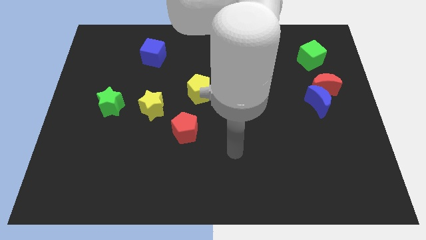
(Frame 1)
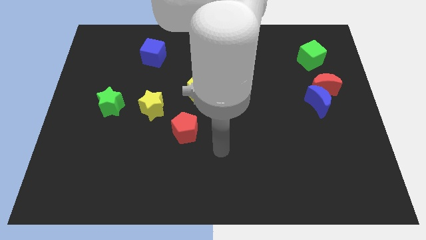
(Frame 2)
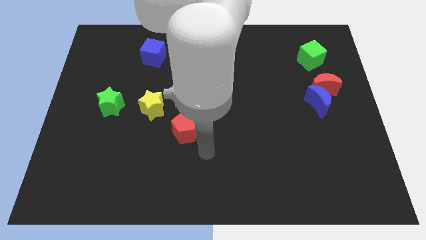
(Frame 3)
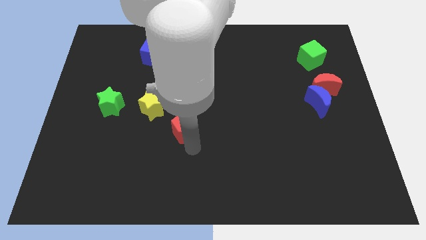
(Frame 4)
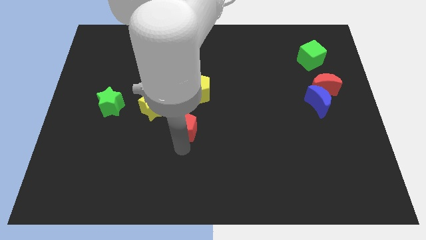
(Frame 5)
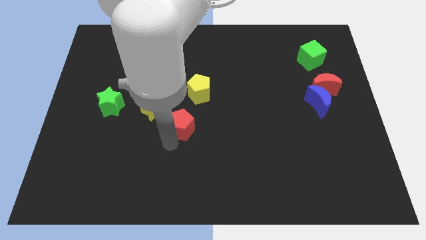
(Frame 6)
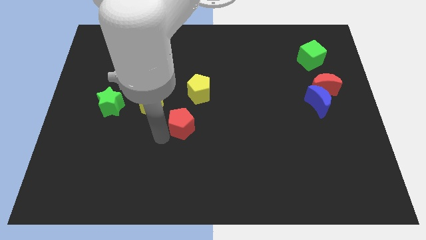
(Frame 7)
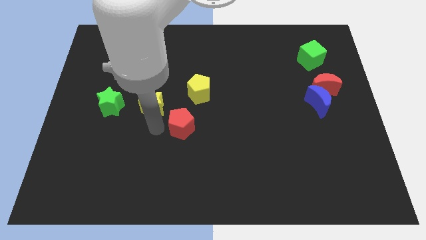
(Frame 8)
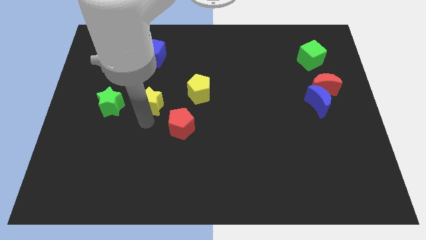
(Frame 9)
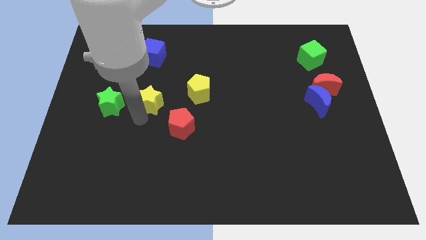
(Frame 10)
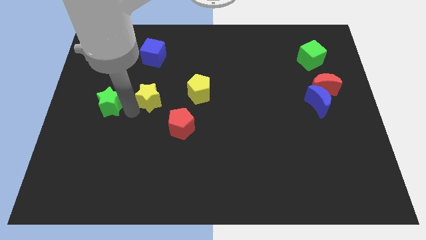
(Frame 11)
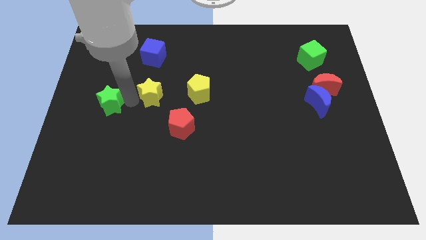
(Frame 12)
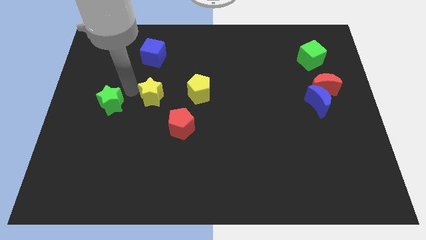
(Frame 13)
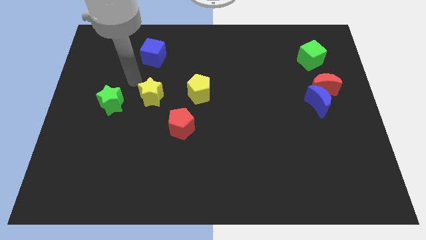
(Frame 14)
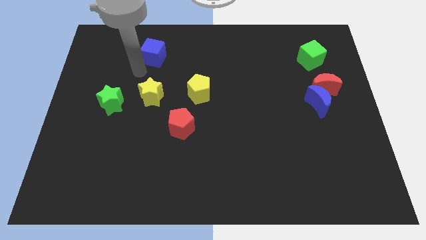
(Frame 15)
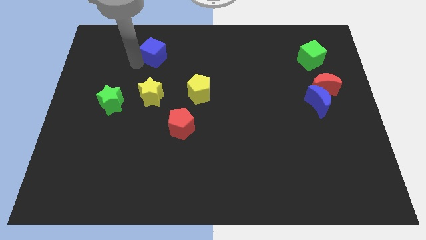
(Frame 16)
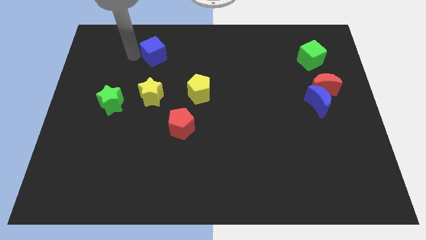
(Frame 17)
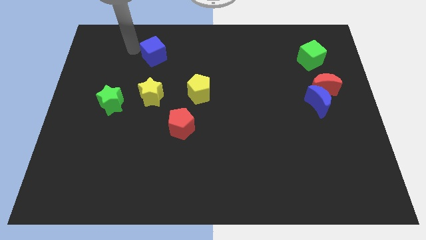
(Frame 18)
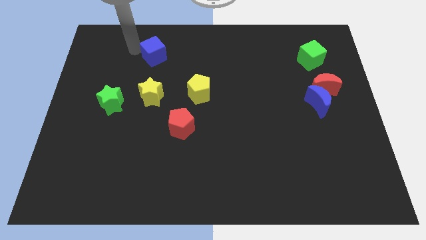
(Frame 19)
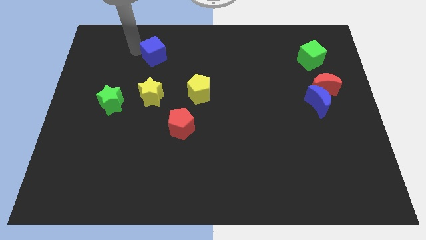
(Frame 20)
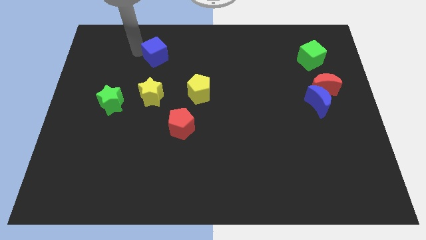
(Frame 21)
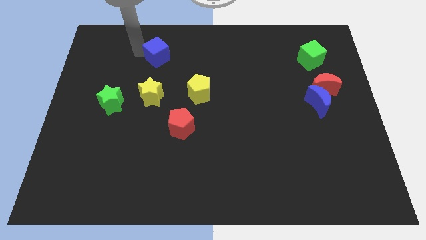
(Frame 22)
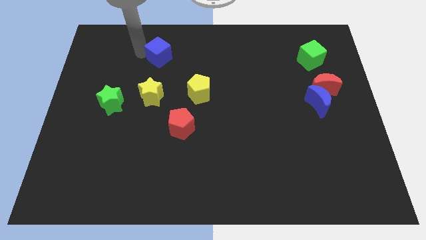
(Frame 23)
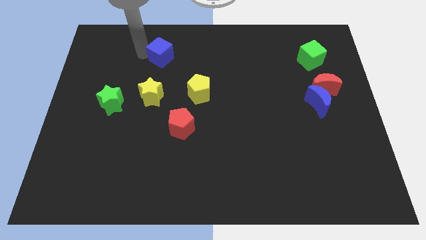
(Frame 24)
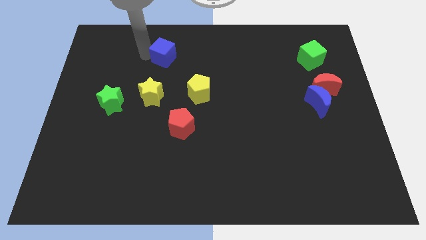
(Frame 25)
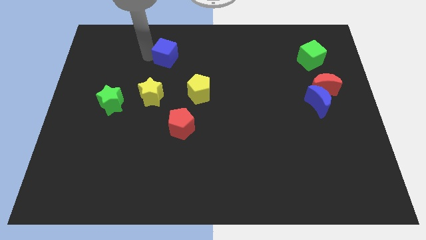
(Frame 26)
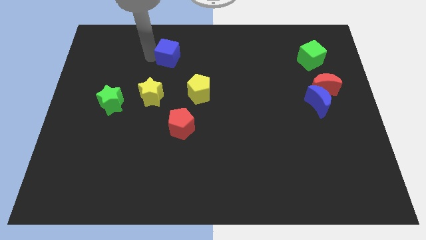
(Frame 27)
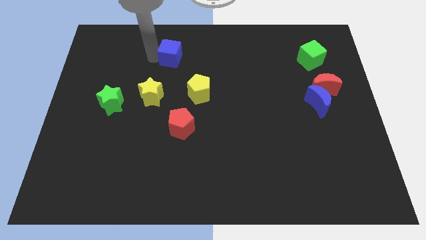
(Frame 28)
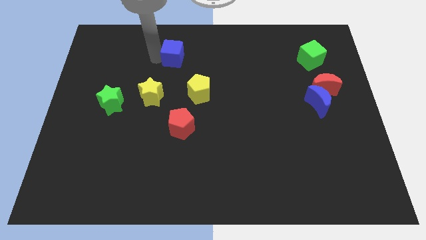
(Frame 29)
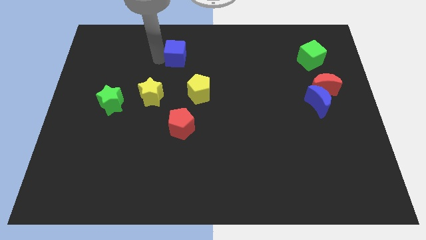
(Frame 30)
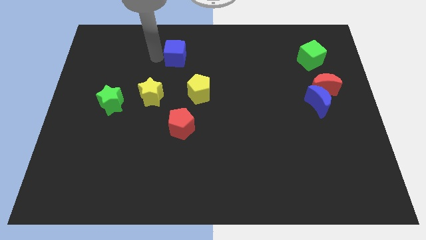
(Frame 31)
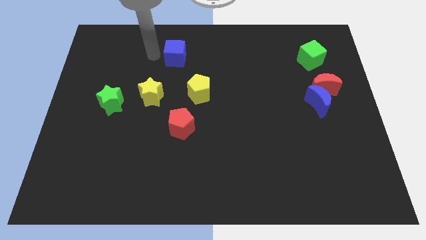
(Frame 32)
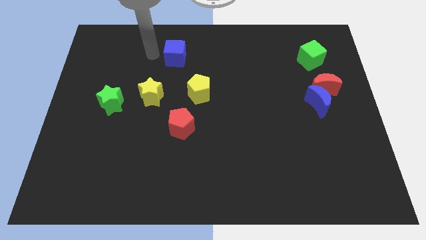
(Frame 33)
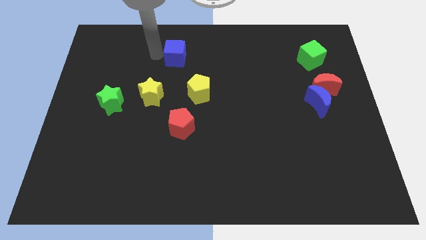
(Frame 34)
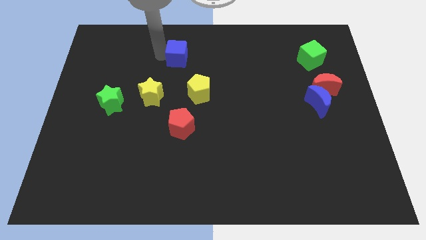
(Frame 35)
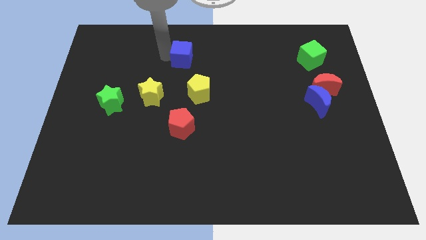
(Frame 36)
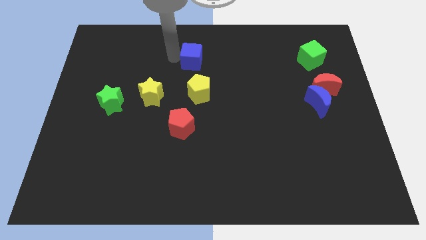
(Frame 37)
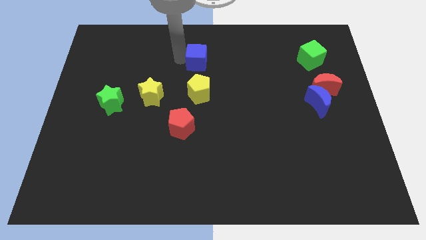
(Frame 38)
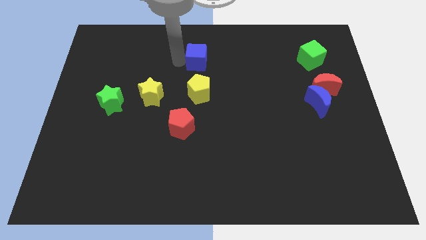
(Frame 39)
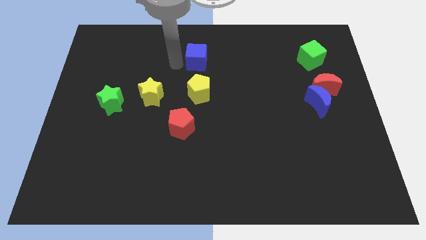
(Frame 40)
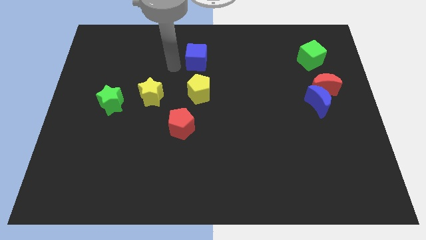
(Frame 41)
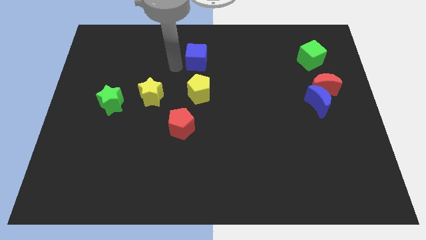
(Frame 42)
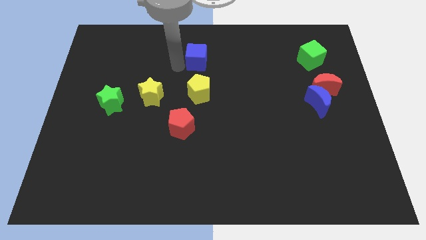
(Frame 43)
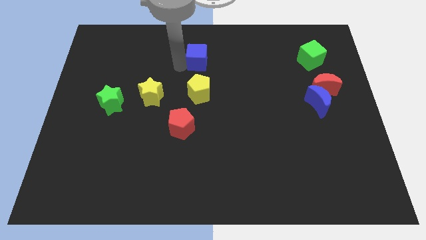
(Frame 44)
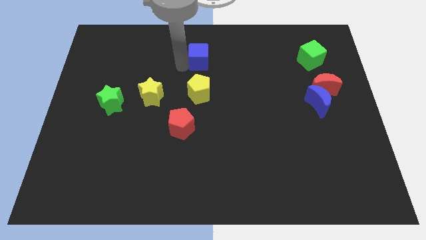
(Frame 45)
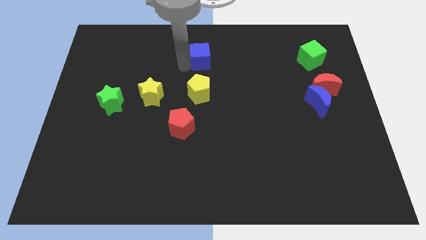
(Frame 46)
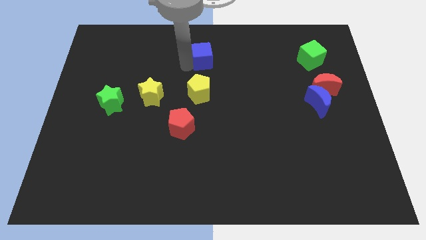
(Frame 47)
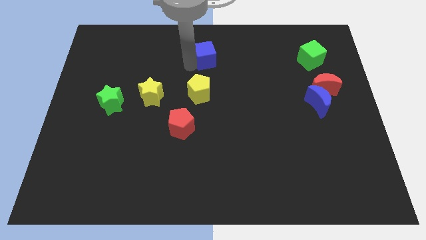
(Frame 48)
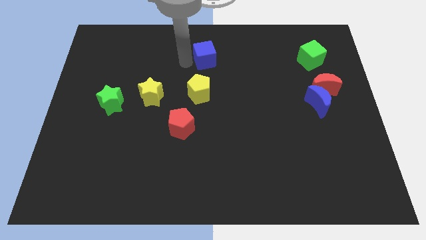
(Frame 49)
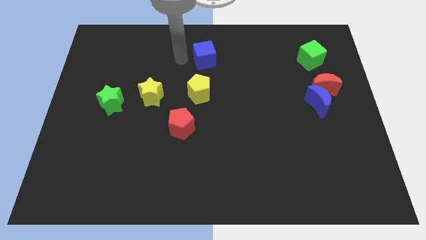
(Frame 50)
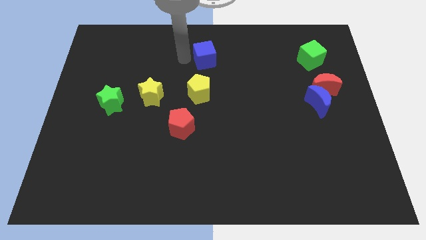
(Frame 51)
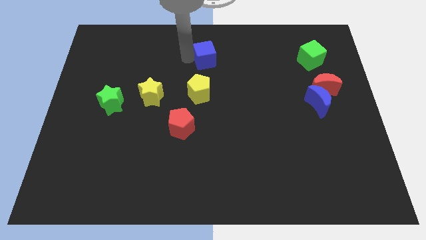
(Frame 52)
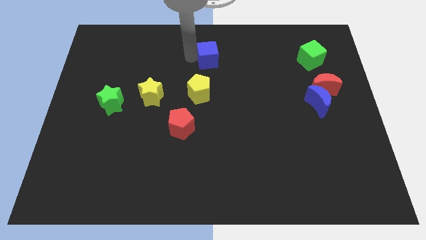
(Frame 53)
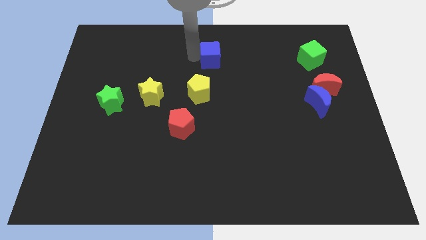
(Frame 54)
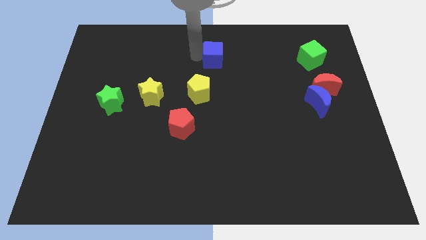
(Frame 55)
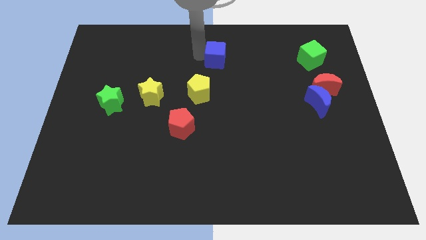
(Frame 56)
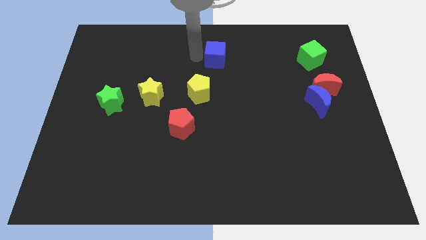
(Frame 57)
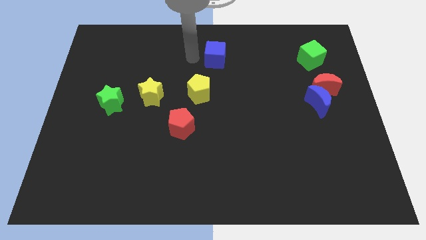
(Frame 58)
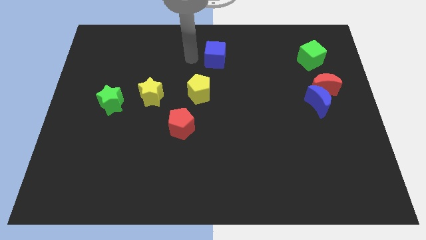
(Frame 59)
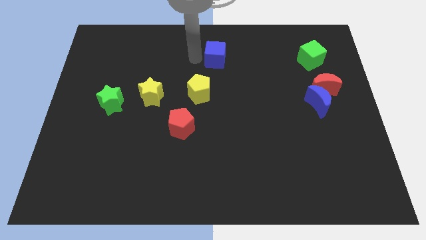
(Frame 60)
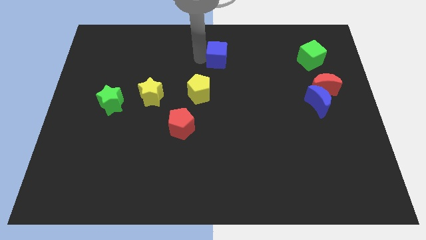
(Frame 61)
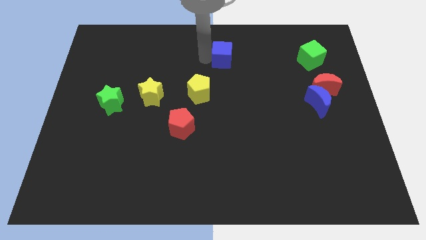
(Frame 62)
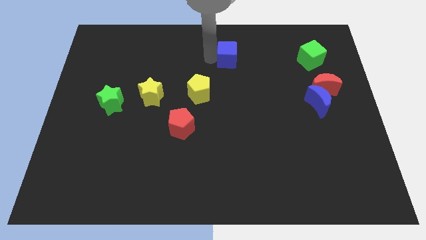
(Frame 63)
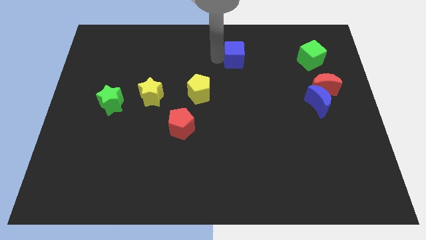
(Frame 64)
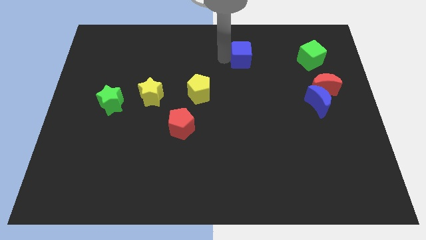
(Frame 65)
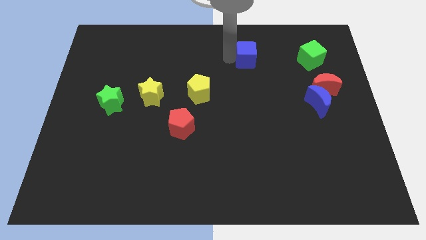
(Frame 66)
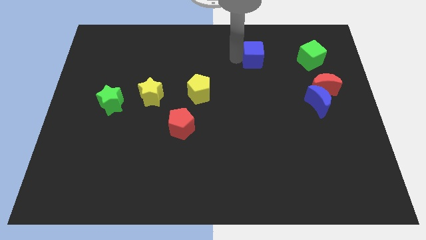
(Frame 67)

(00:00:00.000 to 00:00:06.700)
push the blue cube just left of the green cube

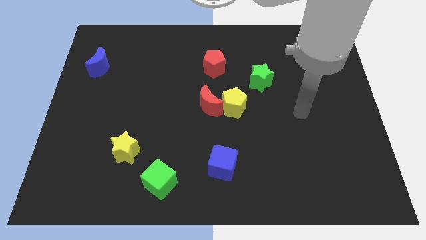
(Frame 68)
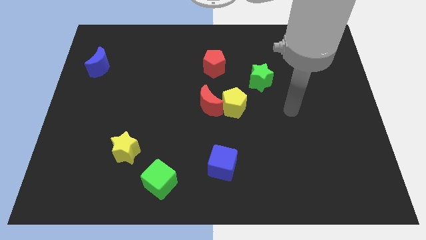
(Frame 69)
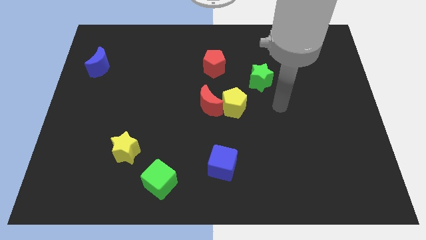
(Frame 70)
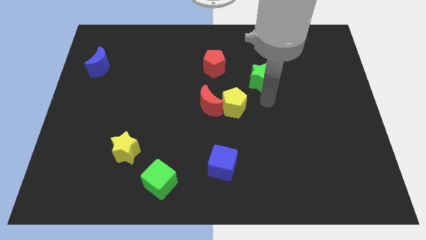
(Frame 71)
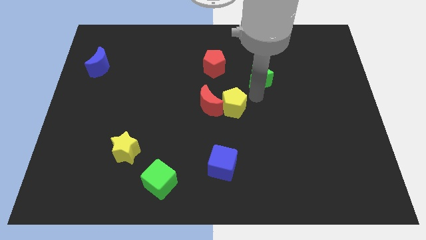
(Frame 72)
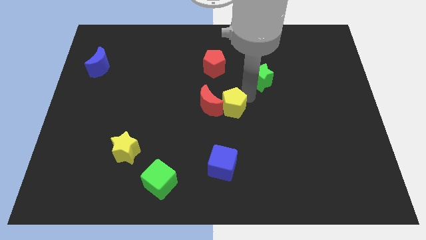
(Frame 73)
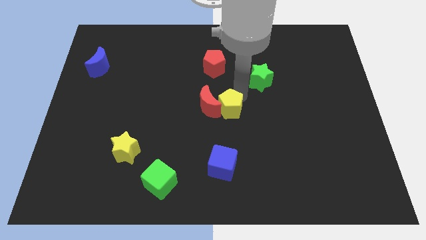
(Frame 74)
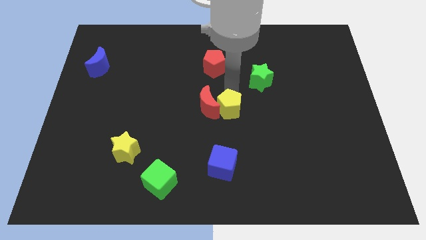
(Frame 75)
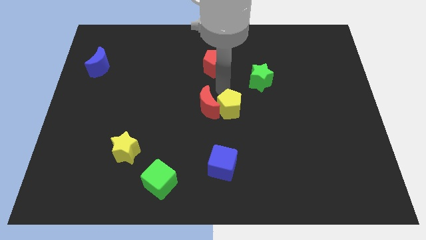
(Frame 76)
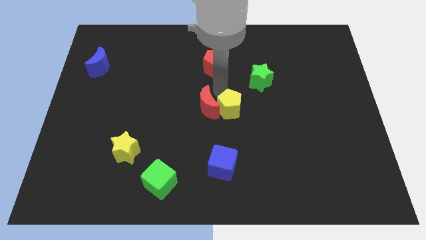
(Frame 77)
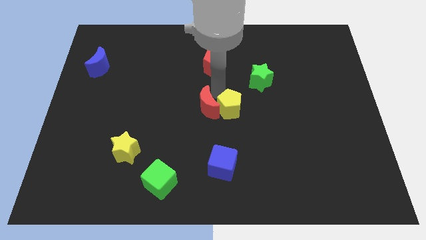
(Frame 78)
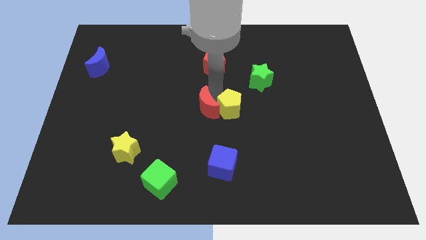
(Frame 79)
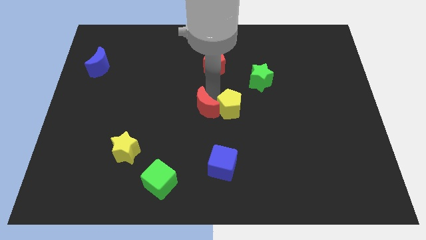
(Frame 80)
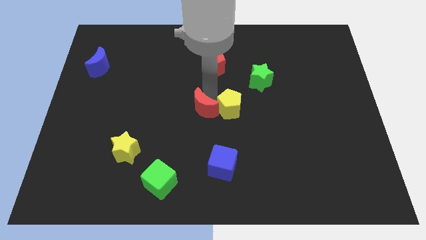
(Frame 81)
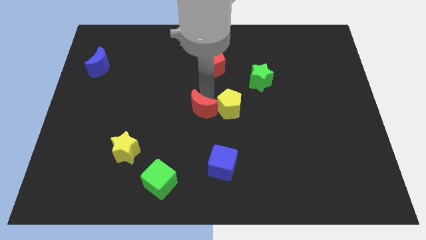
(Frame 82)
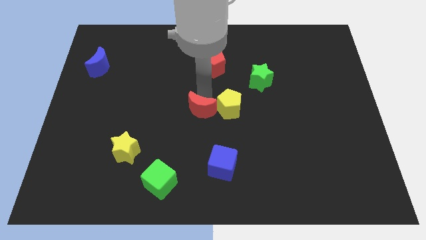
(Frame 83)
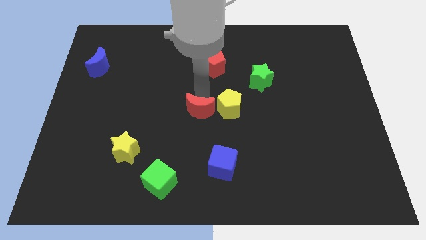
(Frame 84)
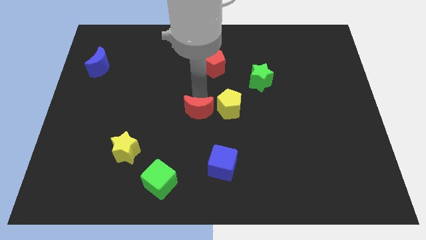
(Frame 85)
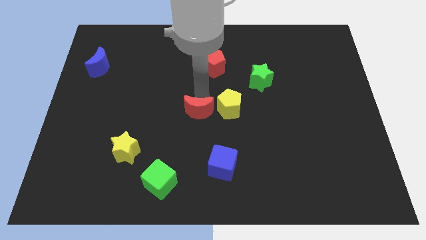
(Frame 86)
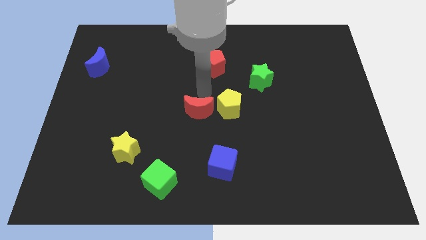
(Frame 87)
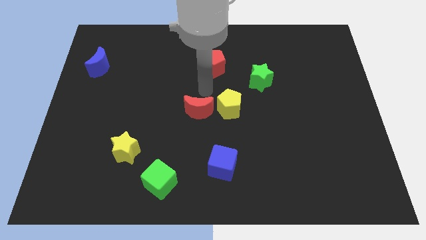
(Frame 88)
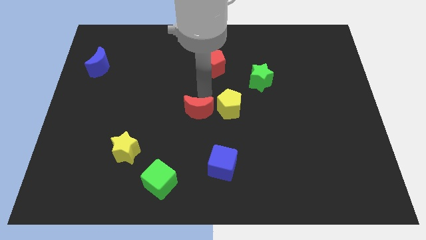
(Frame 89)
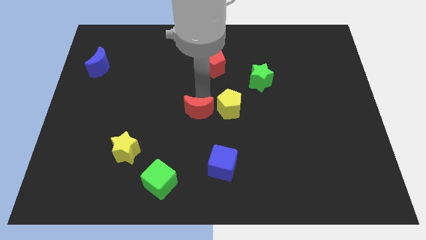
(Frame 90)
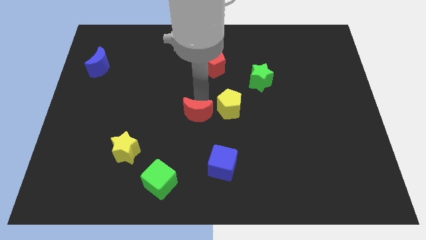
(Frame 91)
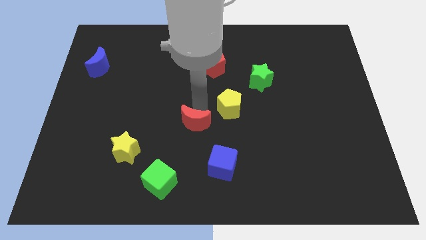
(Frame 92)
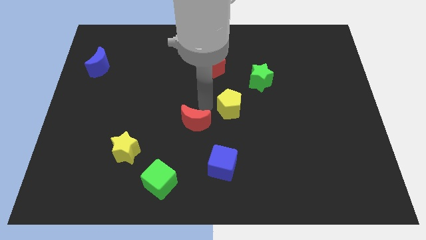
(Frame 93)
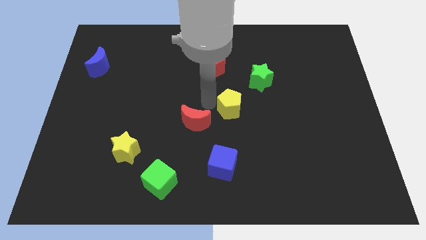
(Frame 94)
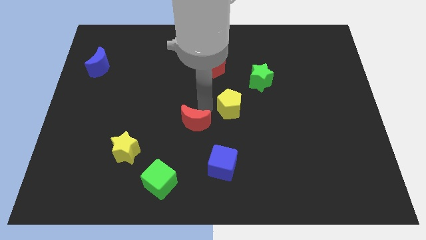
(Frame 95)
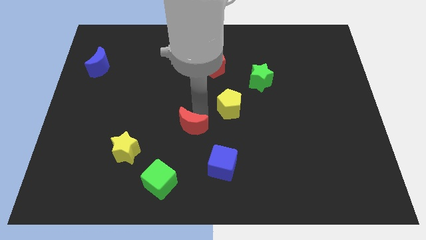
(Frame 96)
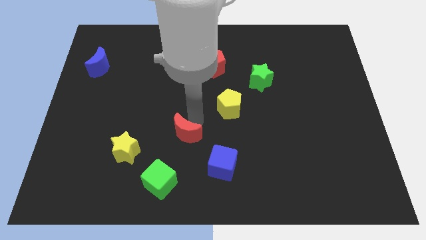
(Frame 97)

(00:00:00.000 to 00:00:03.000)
move the red moon to the right of the yellow star
